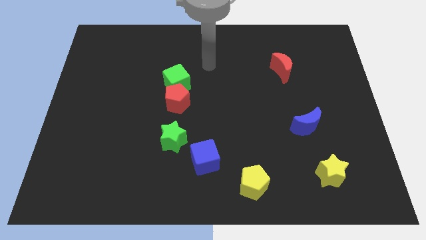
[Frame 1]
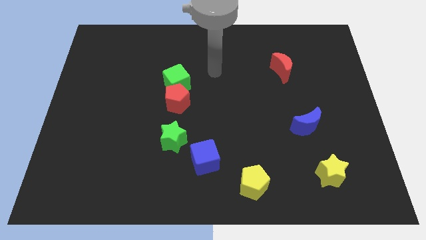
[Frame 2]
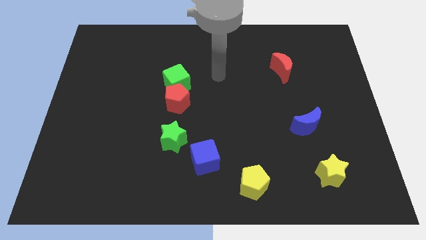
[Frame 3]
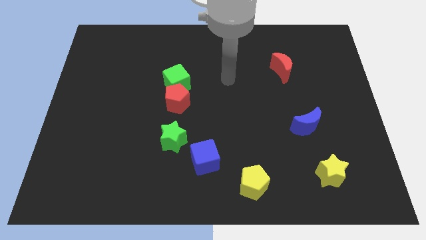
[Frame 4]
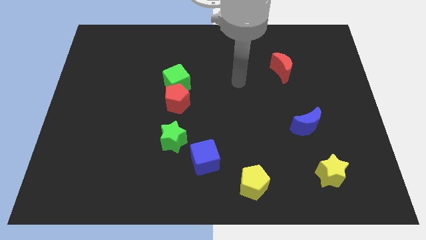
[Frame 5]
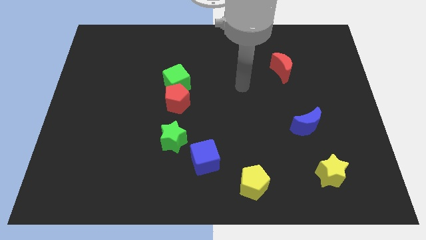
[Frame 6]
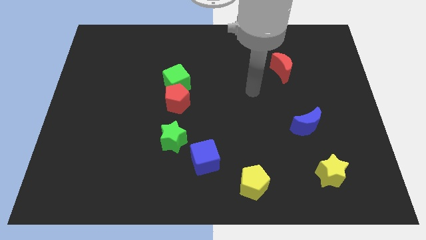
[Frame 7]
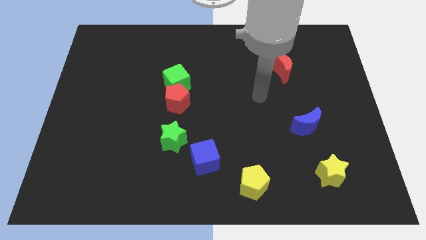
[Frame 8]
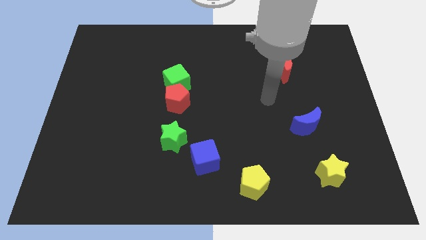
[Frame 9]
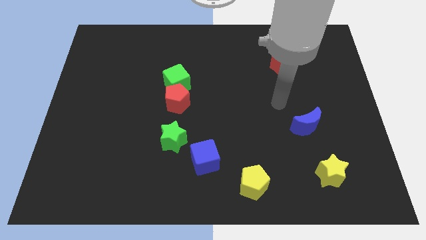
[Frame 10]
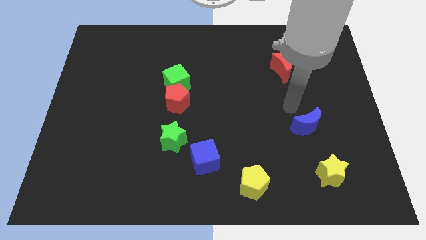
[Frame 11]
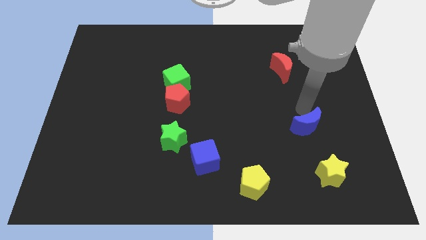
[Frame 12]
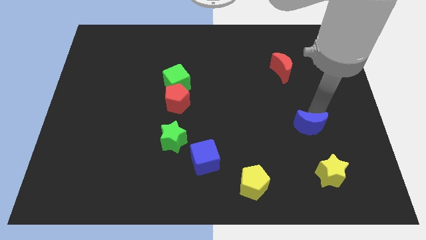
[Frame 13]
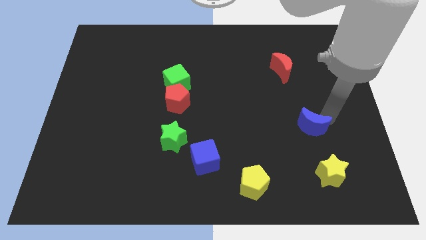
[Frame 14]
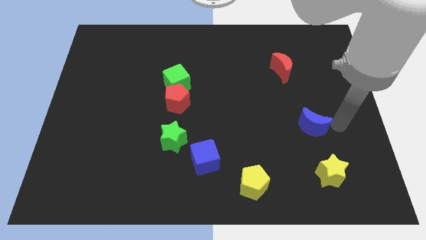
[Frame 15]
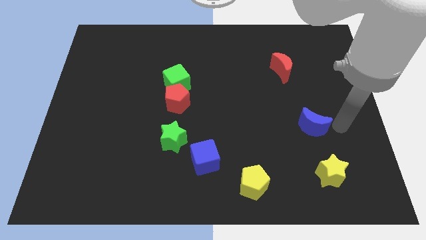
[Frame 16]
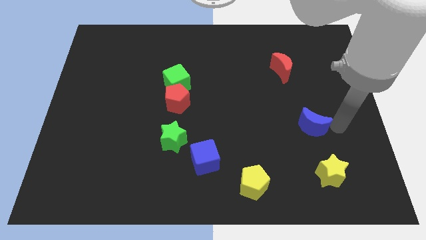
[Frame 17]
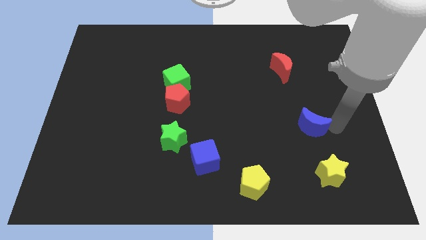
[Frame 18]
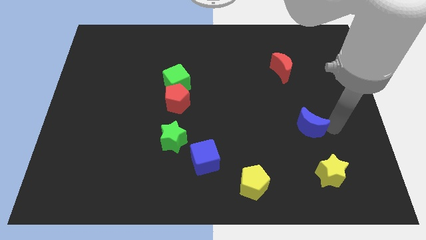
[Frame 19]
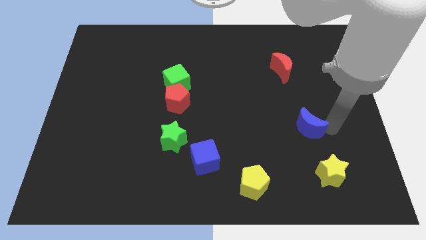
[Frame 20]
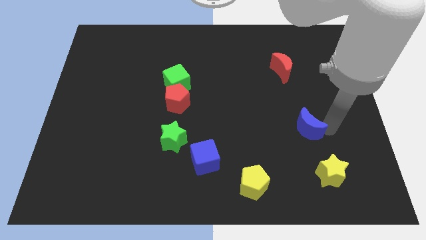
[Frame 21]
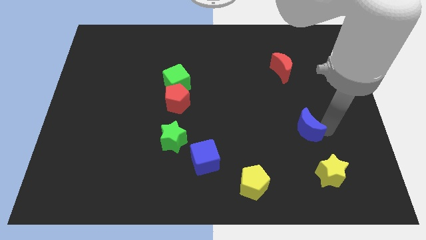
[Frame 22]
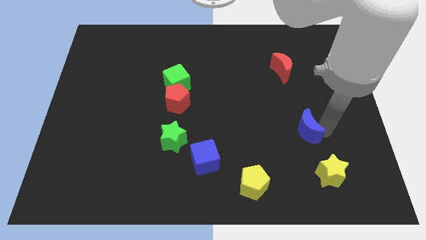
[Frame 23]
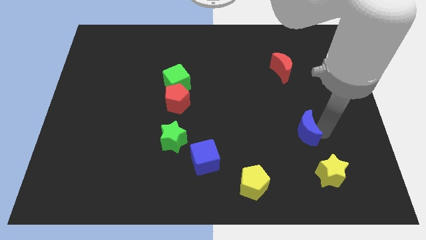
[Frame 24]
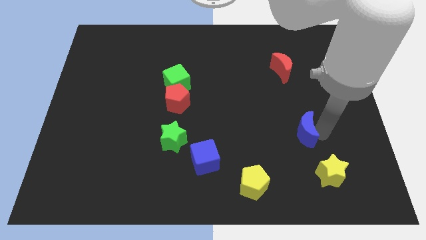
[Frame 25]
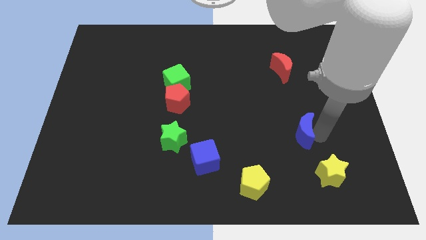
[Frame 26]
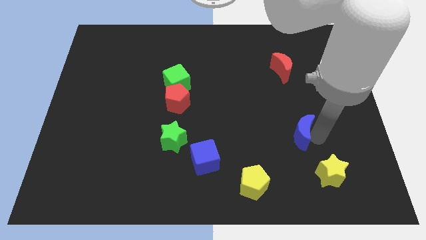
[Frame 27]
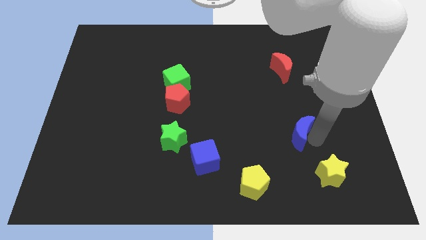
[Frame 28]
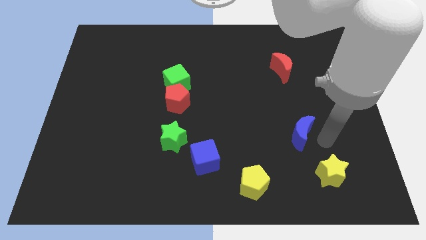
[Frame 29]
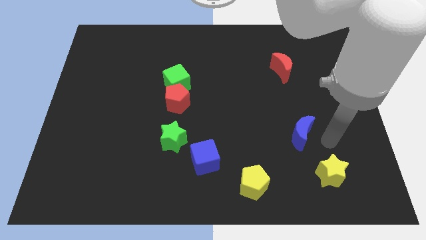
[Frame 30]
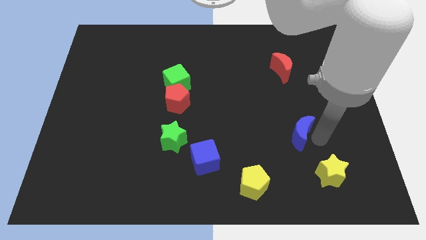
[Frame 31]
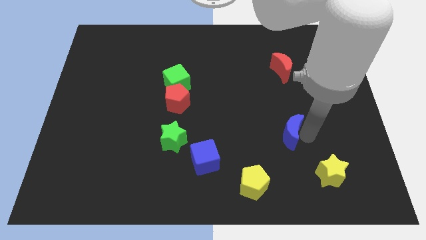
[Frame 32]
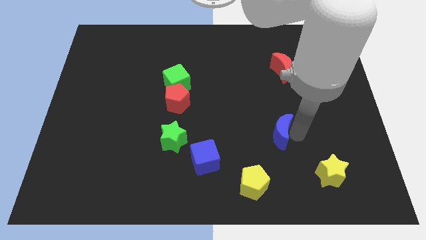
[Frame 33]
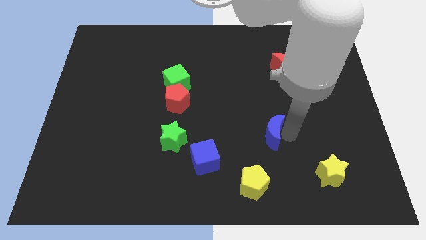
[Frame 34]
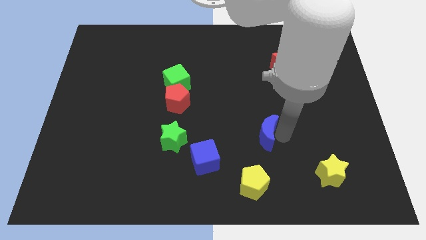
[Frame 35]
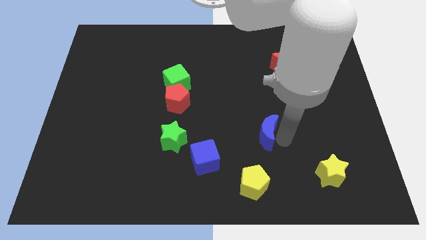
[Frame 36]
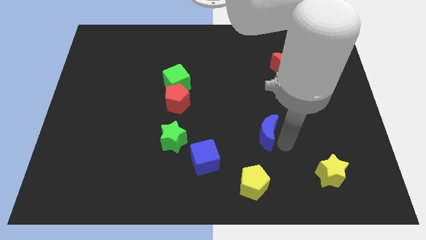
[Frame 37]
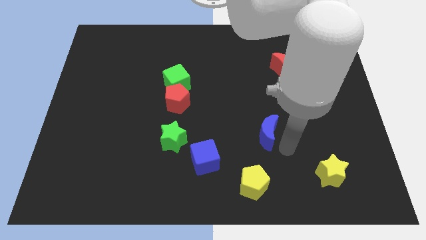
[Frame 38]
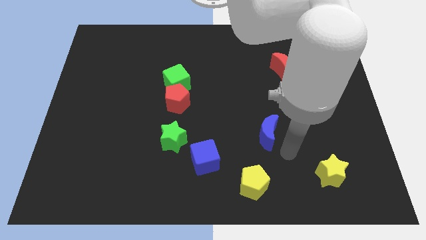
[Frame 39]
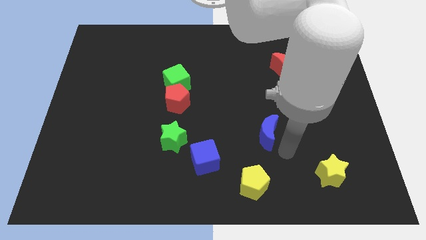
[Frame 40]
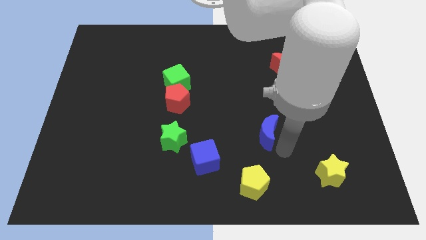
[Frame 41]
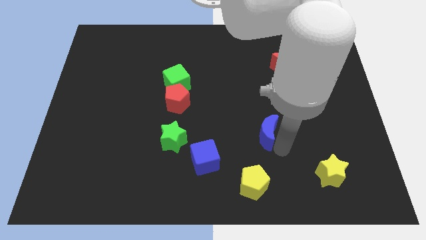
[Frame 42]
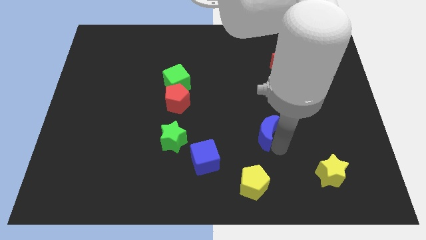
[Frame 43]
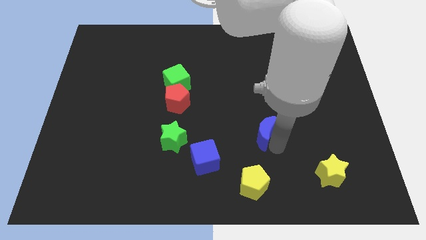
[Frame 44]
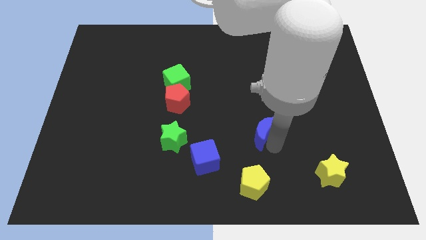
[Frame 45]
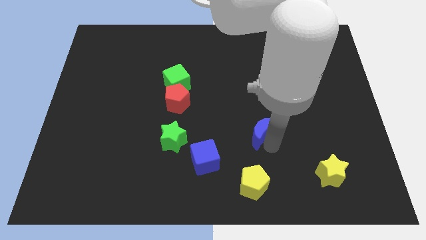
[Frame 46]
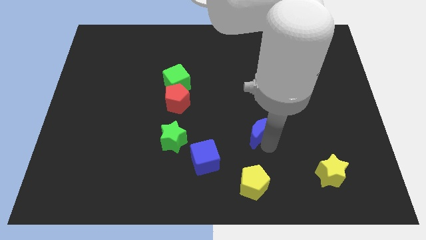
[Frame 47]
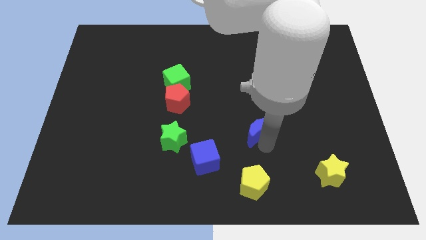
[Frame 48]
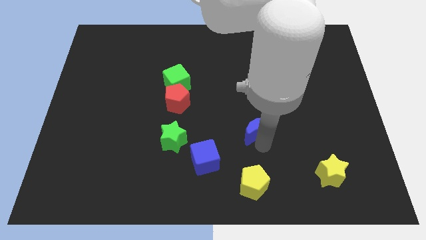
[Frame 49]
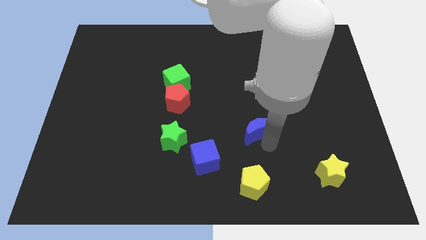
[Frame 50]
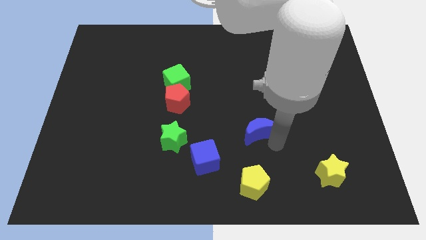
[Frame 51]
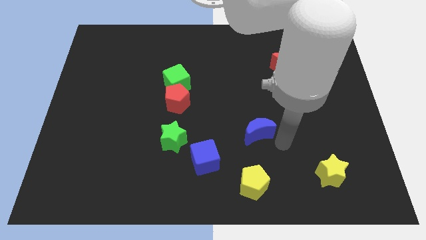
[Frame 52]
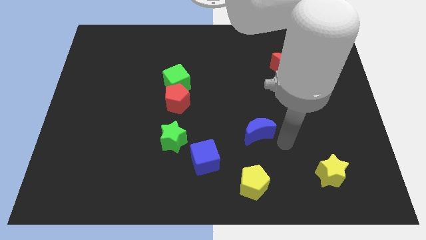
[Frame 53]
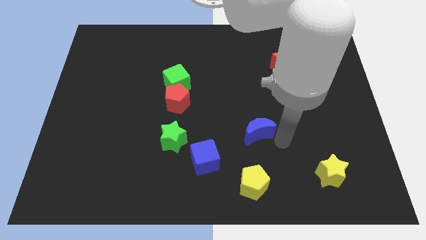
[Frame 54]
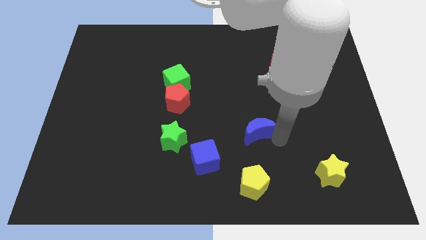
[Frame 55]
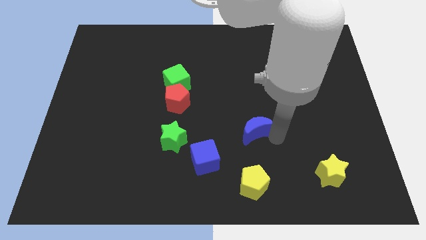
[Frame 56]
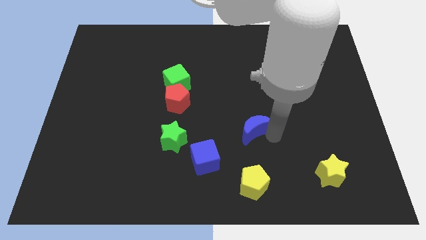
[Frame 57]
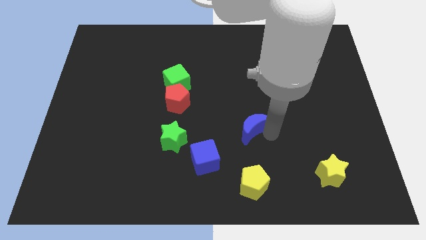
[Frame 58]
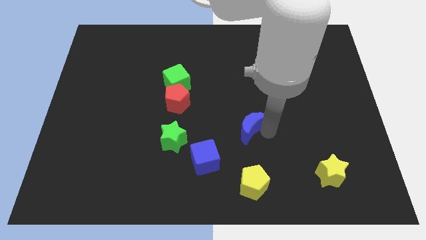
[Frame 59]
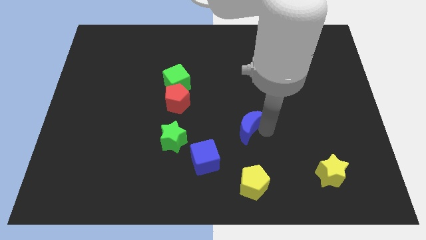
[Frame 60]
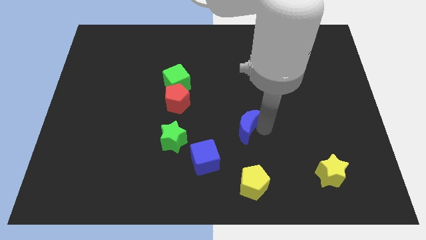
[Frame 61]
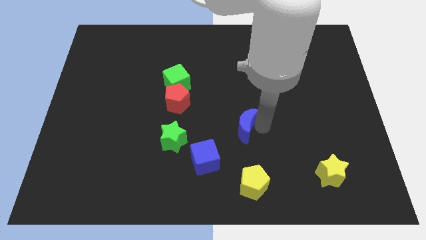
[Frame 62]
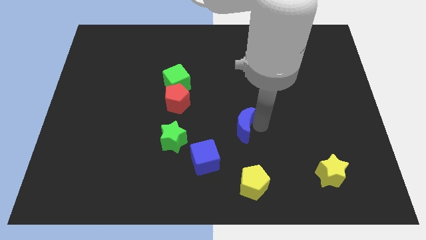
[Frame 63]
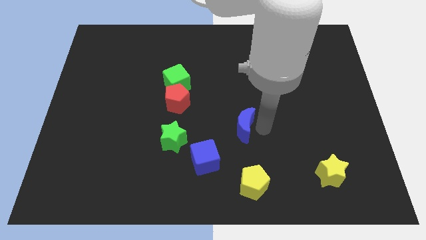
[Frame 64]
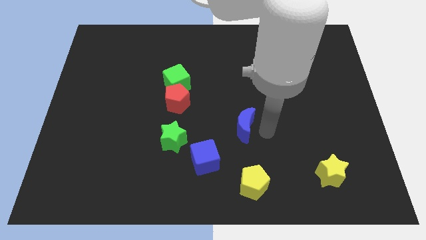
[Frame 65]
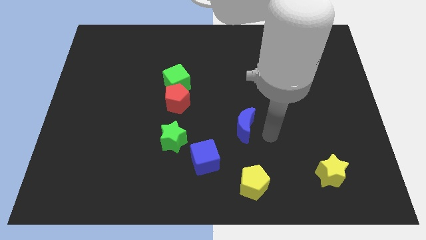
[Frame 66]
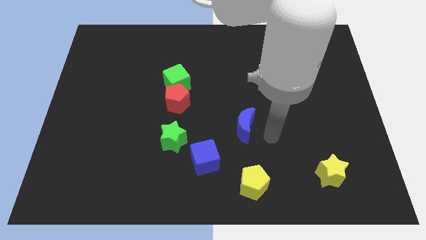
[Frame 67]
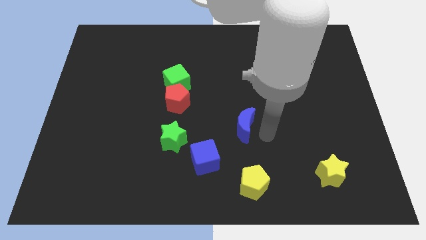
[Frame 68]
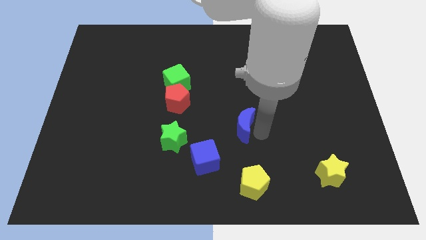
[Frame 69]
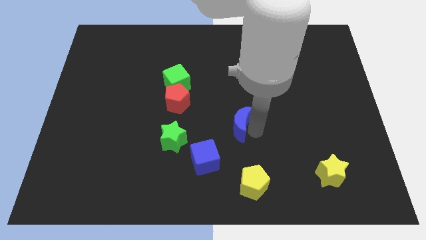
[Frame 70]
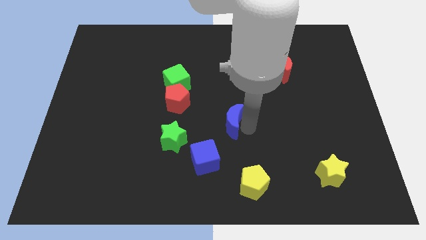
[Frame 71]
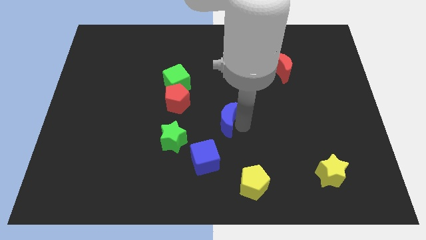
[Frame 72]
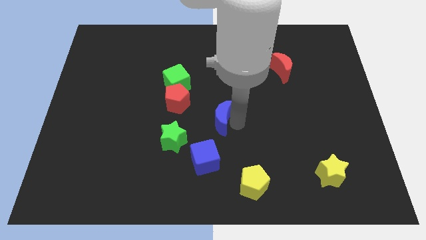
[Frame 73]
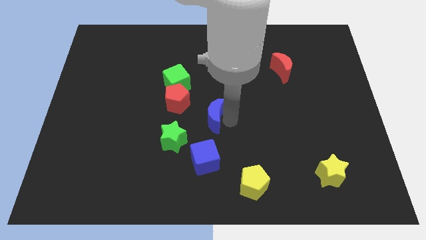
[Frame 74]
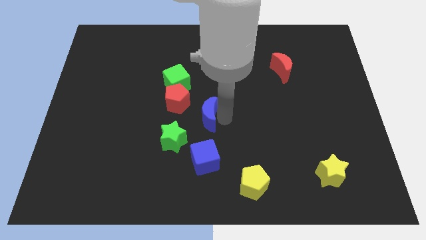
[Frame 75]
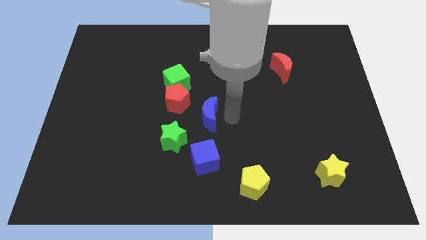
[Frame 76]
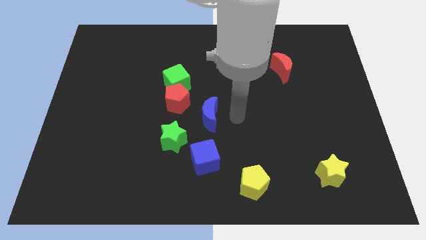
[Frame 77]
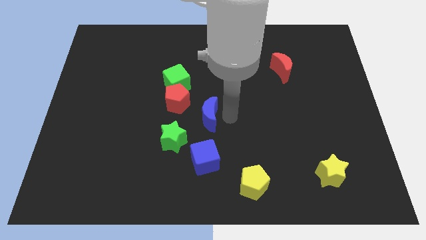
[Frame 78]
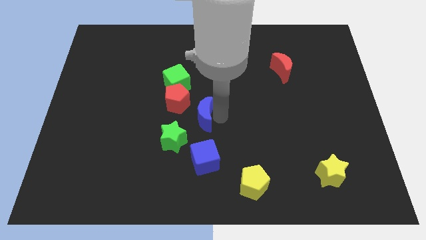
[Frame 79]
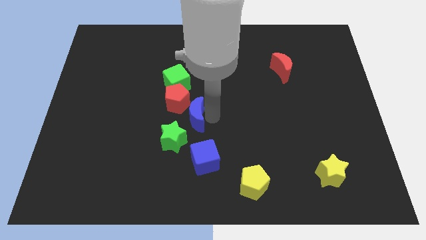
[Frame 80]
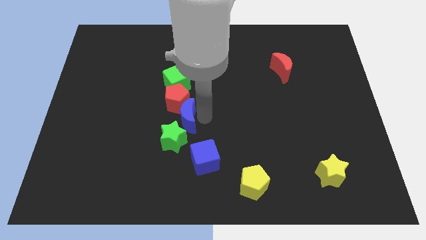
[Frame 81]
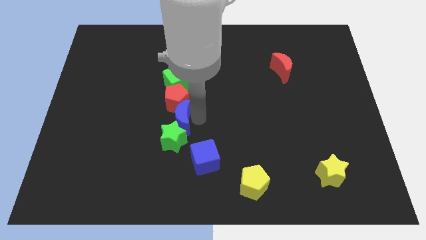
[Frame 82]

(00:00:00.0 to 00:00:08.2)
slide the blue moon diagonally down and to the left of the red pentagon
